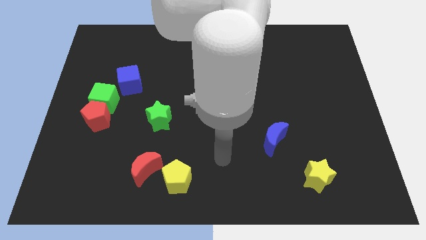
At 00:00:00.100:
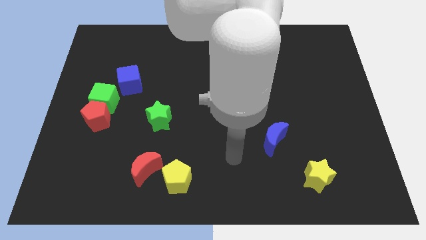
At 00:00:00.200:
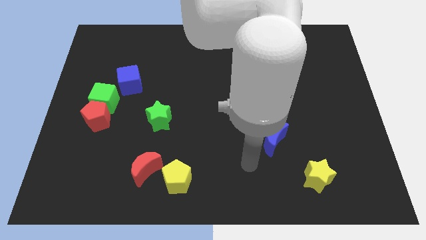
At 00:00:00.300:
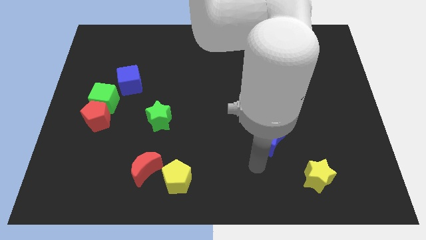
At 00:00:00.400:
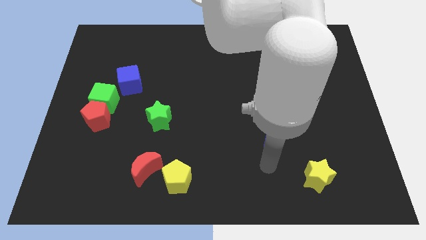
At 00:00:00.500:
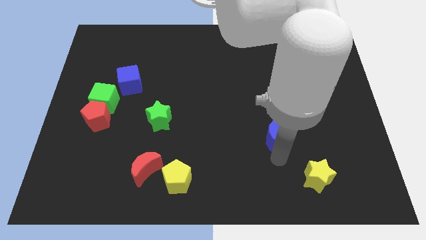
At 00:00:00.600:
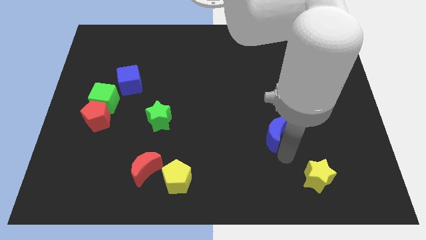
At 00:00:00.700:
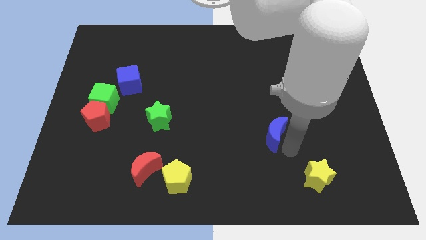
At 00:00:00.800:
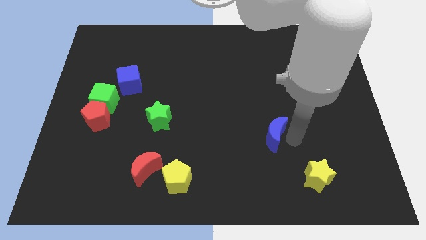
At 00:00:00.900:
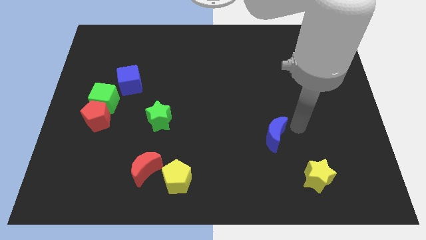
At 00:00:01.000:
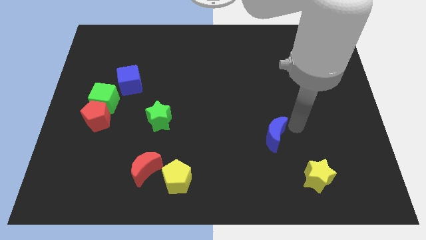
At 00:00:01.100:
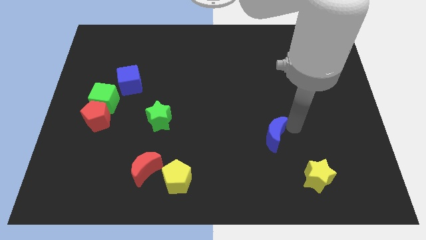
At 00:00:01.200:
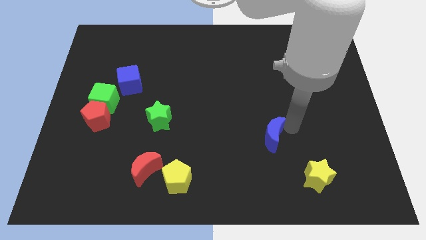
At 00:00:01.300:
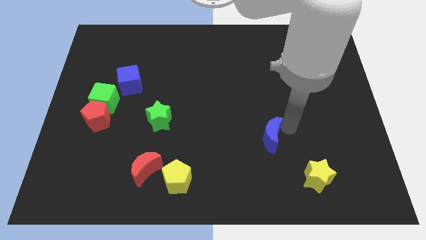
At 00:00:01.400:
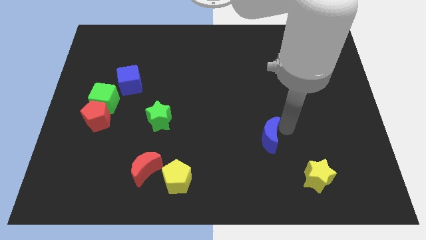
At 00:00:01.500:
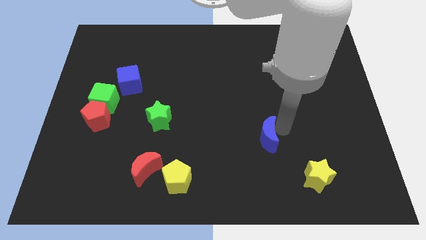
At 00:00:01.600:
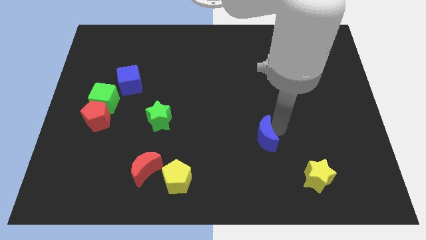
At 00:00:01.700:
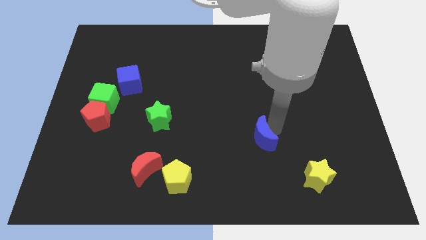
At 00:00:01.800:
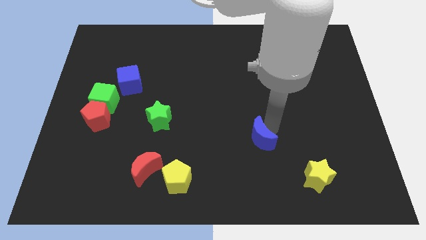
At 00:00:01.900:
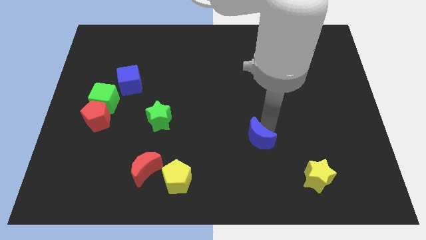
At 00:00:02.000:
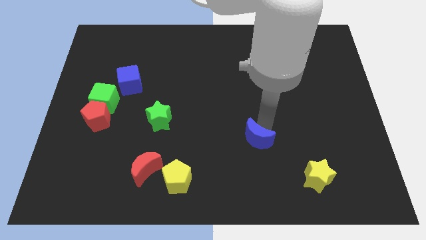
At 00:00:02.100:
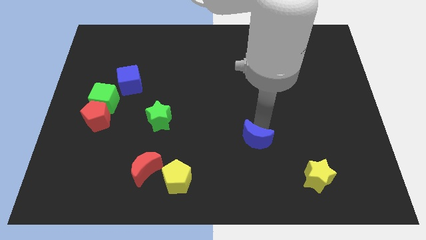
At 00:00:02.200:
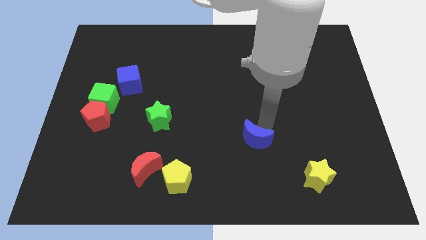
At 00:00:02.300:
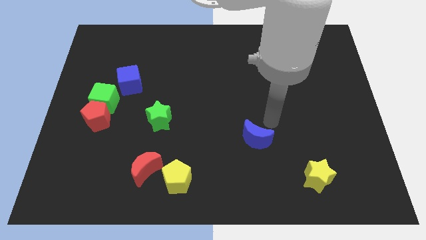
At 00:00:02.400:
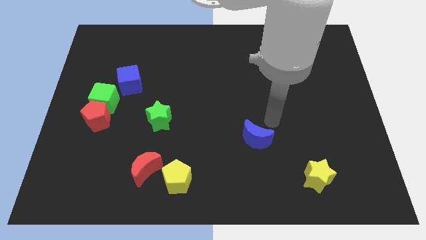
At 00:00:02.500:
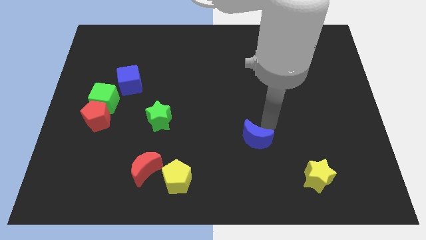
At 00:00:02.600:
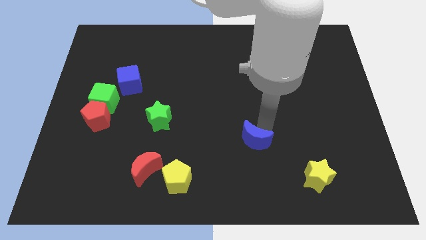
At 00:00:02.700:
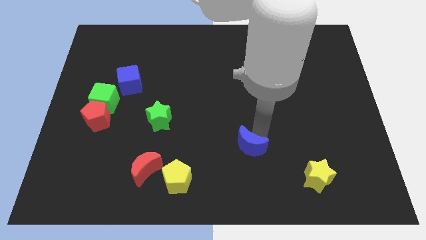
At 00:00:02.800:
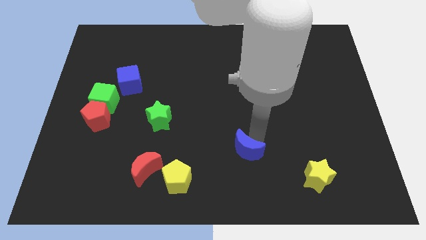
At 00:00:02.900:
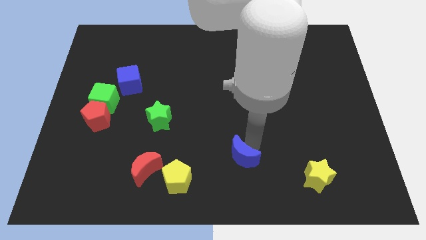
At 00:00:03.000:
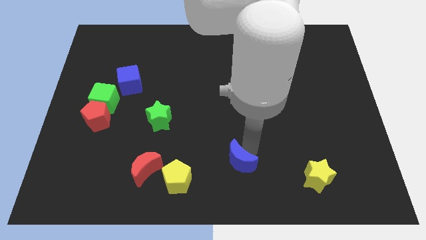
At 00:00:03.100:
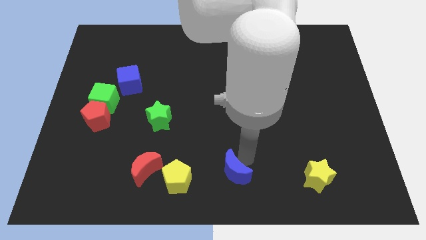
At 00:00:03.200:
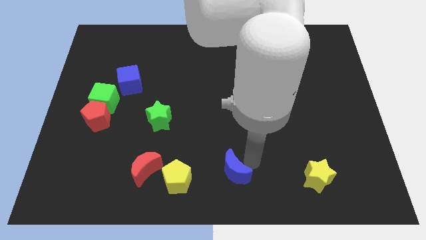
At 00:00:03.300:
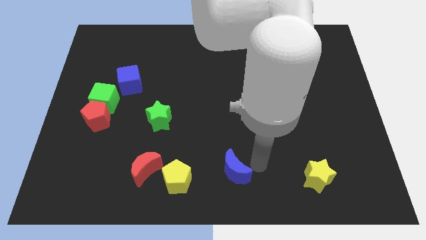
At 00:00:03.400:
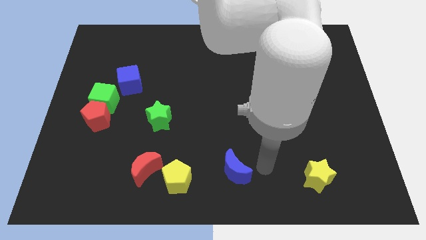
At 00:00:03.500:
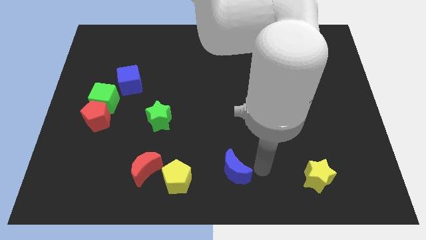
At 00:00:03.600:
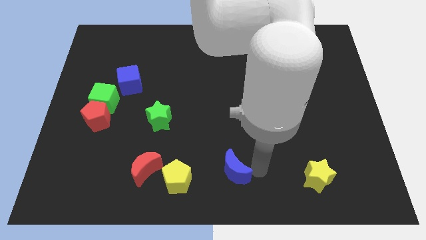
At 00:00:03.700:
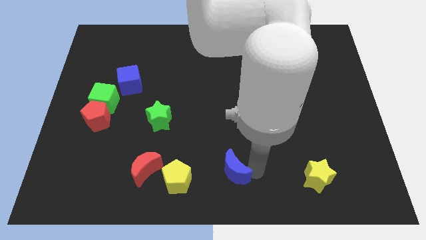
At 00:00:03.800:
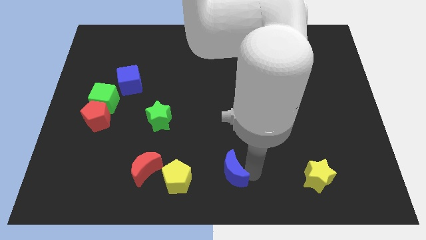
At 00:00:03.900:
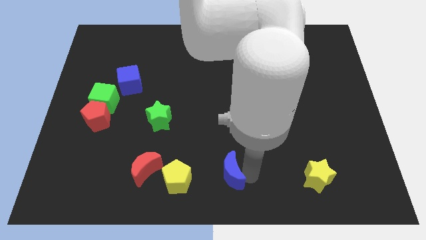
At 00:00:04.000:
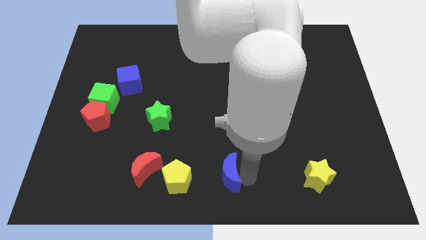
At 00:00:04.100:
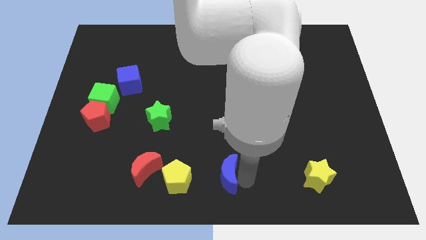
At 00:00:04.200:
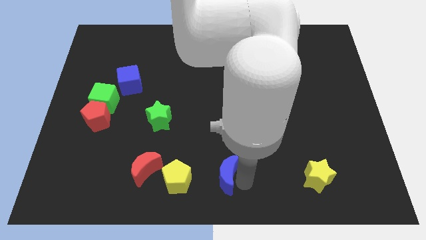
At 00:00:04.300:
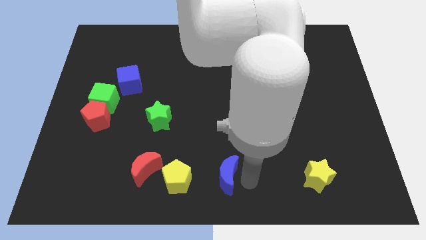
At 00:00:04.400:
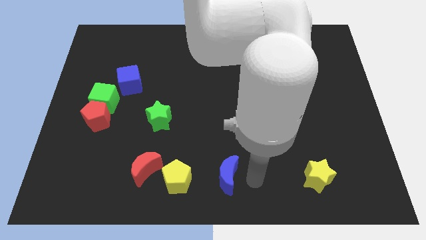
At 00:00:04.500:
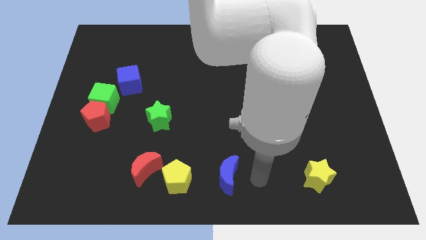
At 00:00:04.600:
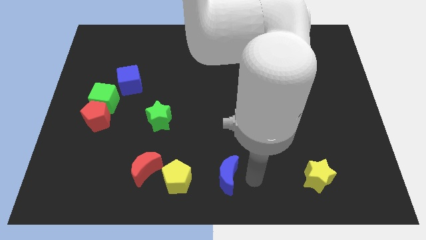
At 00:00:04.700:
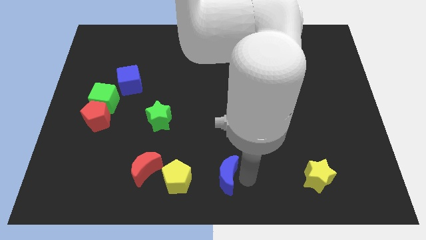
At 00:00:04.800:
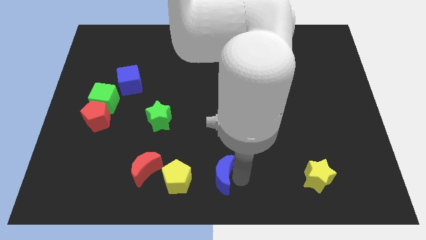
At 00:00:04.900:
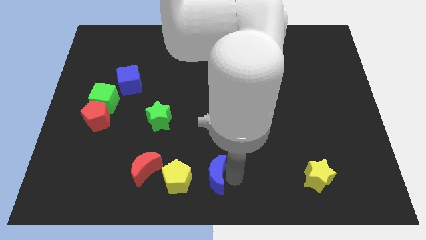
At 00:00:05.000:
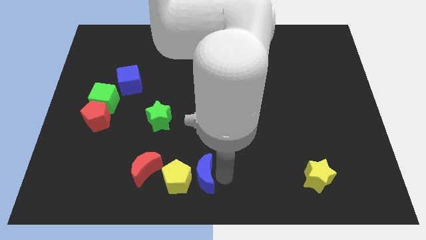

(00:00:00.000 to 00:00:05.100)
push the blue moon to the yellow pentagon

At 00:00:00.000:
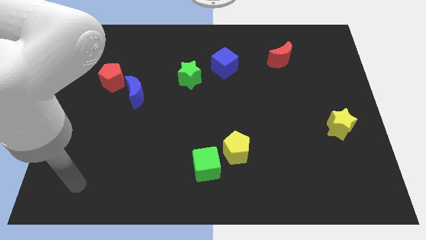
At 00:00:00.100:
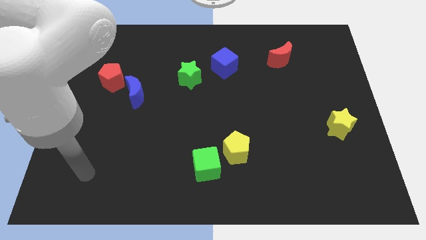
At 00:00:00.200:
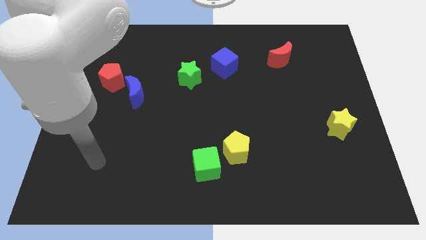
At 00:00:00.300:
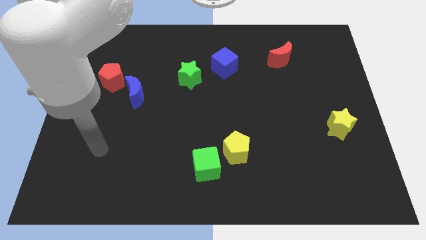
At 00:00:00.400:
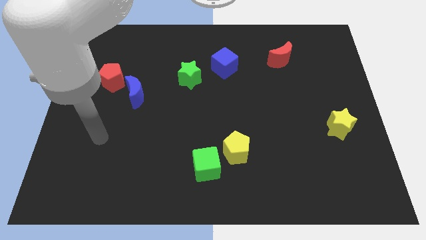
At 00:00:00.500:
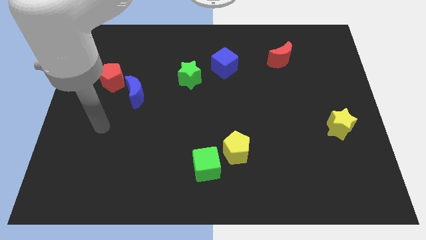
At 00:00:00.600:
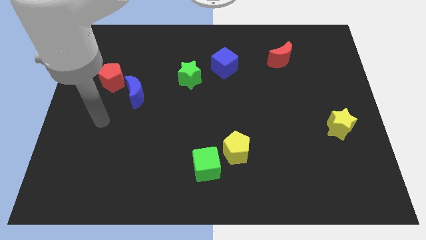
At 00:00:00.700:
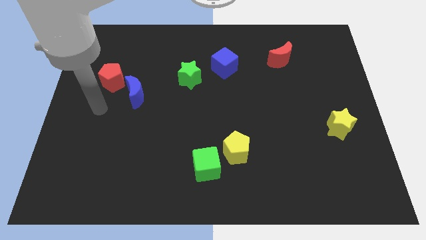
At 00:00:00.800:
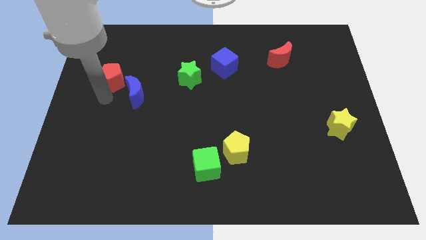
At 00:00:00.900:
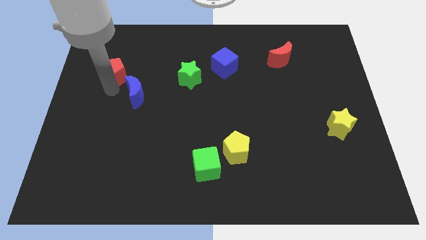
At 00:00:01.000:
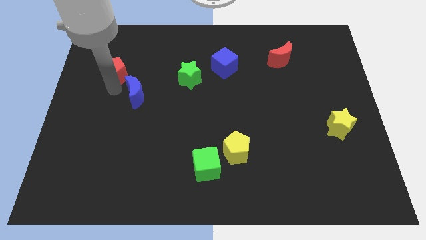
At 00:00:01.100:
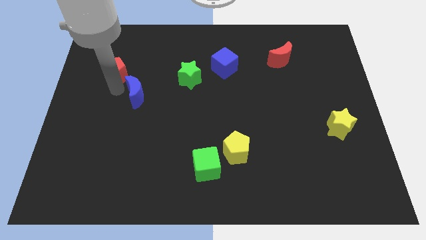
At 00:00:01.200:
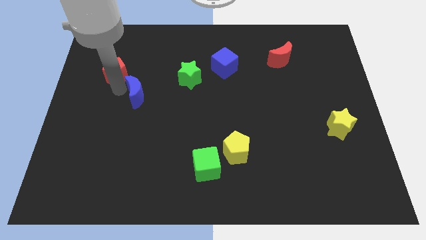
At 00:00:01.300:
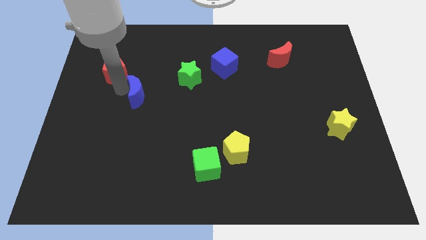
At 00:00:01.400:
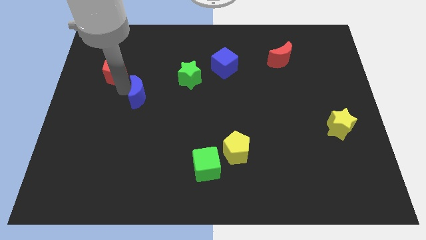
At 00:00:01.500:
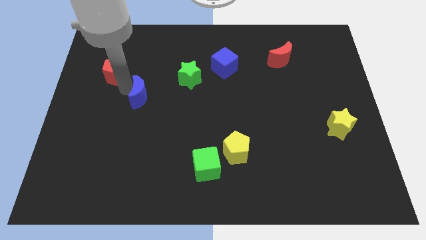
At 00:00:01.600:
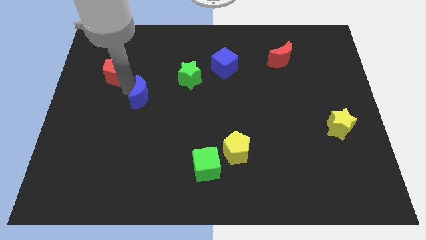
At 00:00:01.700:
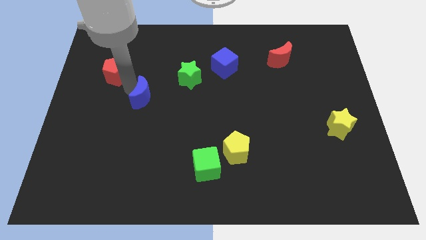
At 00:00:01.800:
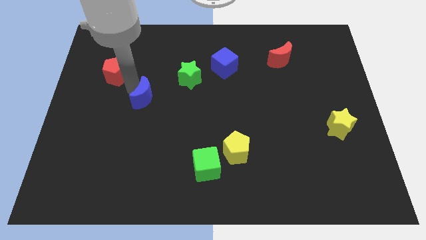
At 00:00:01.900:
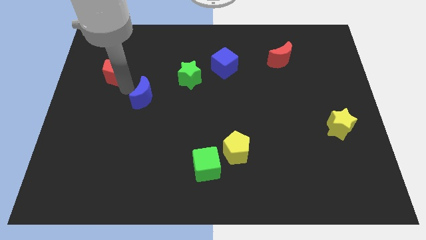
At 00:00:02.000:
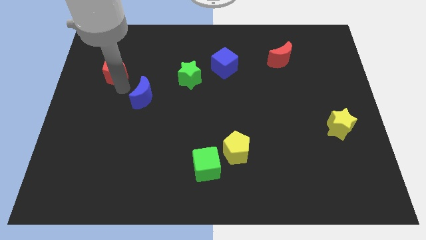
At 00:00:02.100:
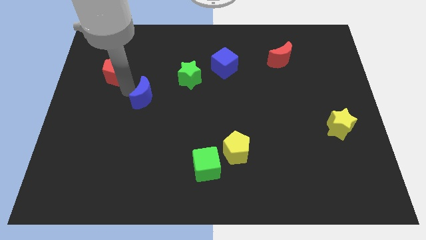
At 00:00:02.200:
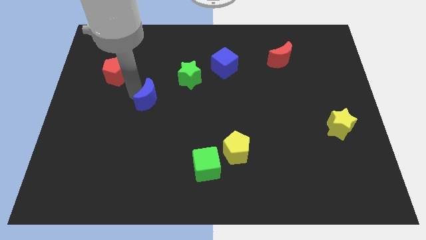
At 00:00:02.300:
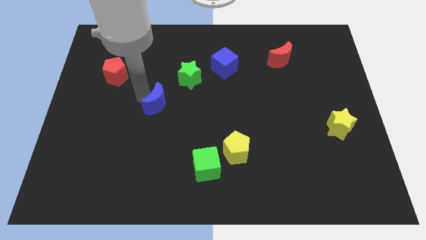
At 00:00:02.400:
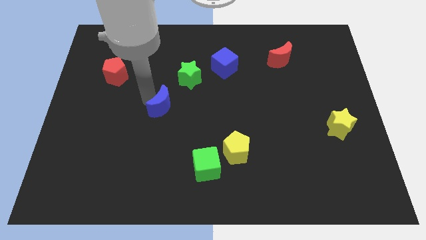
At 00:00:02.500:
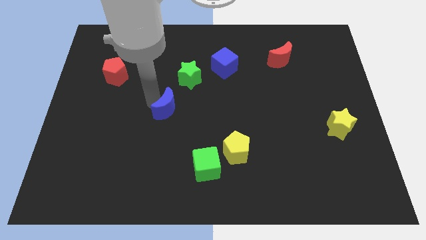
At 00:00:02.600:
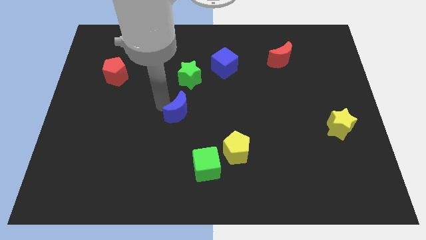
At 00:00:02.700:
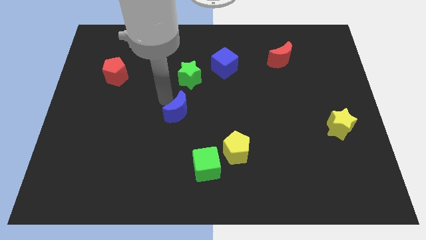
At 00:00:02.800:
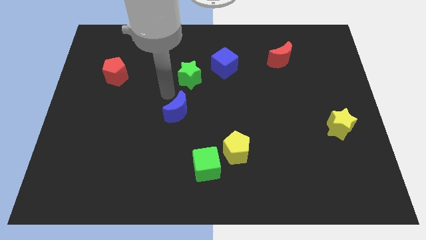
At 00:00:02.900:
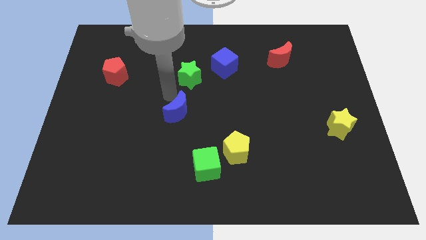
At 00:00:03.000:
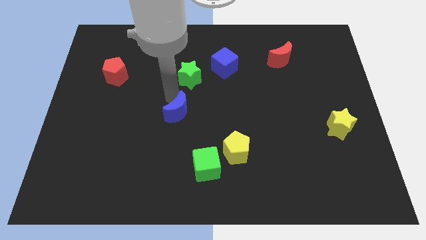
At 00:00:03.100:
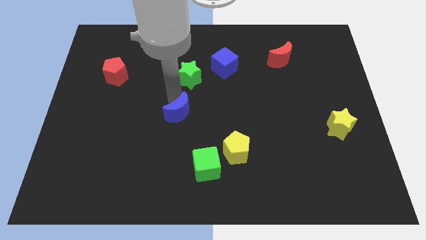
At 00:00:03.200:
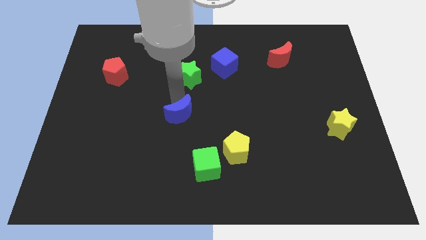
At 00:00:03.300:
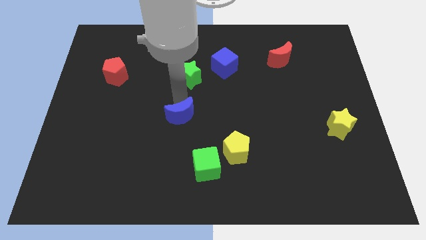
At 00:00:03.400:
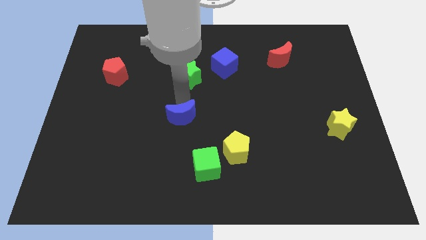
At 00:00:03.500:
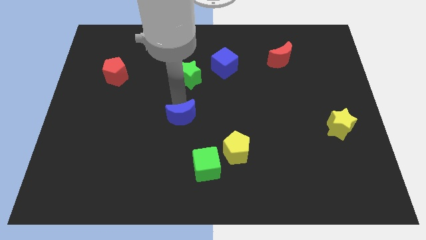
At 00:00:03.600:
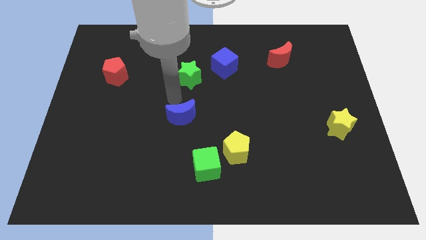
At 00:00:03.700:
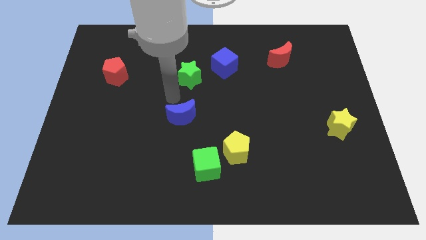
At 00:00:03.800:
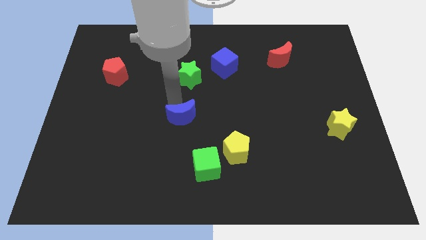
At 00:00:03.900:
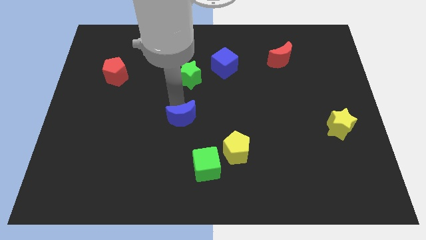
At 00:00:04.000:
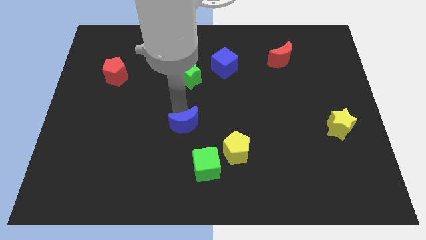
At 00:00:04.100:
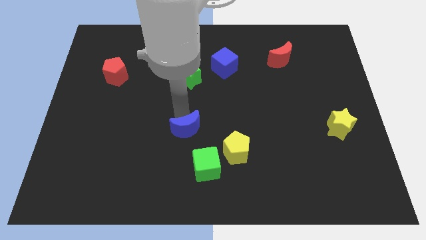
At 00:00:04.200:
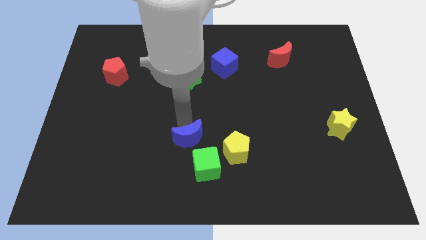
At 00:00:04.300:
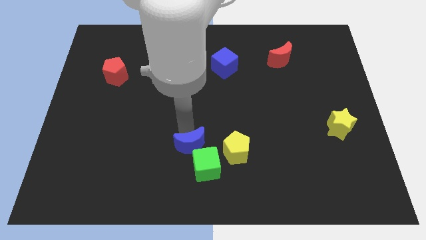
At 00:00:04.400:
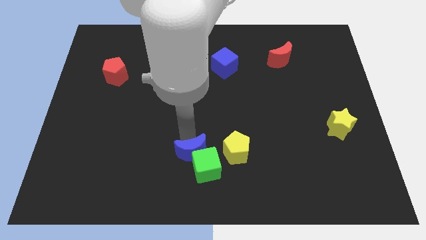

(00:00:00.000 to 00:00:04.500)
slide the blue moon close to the green cube
